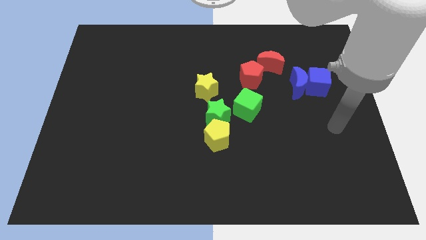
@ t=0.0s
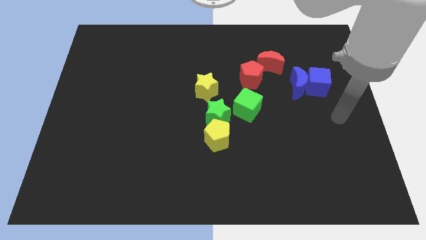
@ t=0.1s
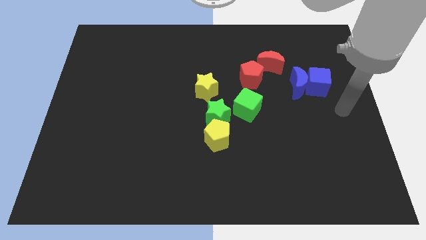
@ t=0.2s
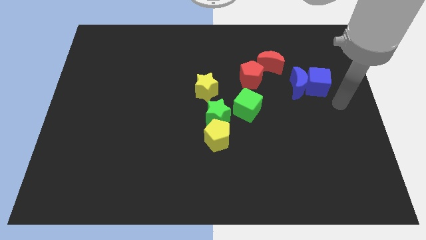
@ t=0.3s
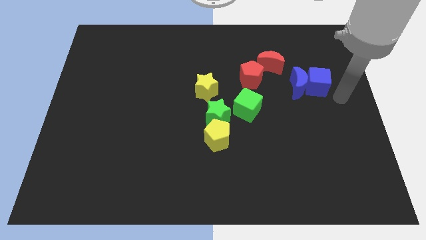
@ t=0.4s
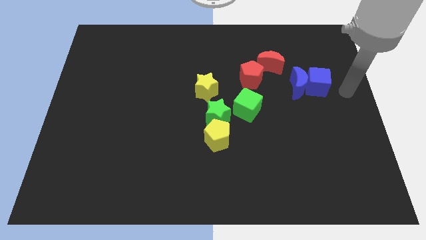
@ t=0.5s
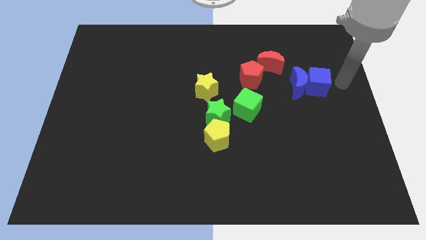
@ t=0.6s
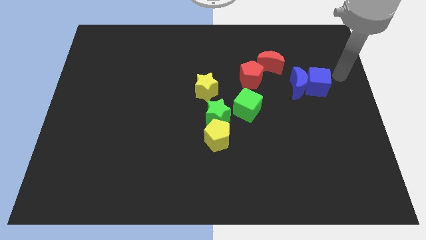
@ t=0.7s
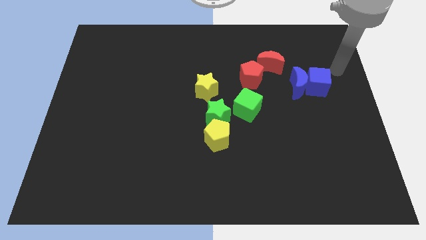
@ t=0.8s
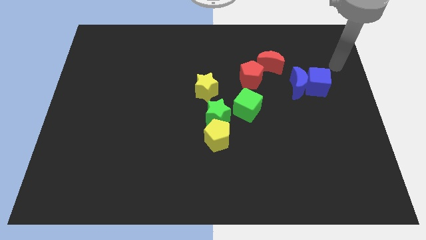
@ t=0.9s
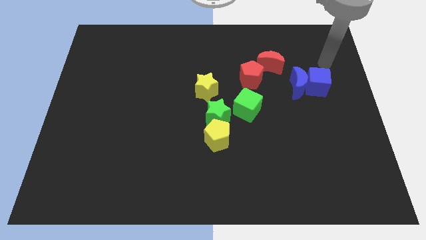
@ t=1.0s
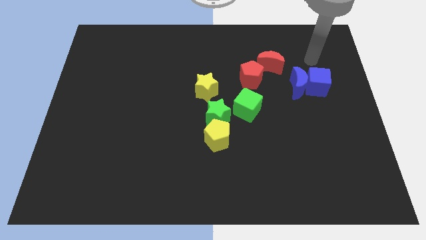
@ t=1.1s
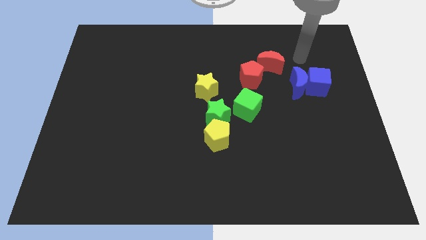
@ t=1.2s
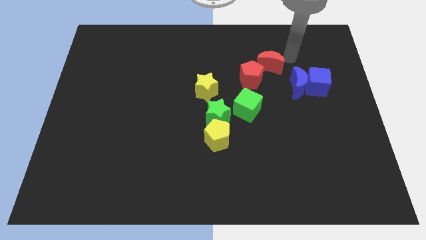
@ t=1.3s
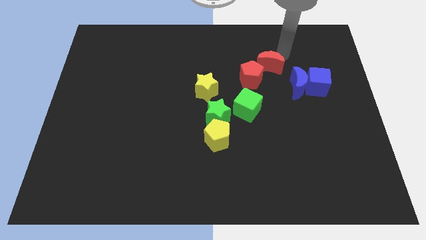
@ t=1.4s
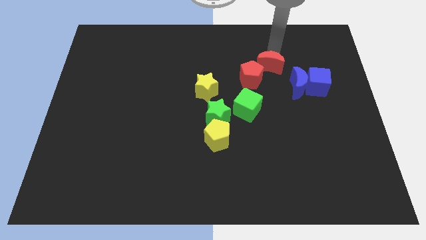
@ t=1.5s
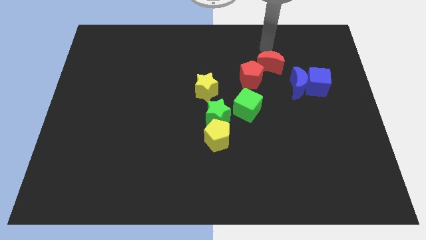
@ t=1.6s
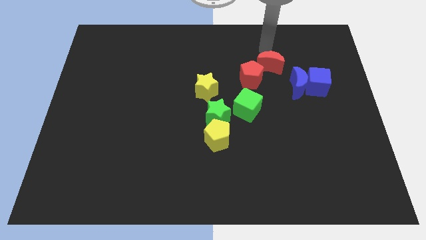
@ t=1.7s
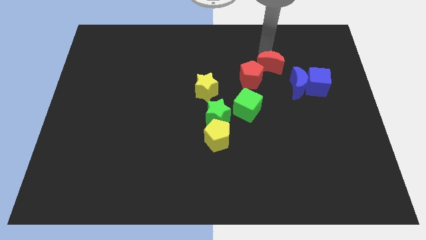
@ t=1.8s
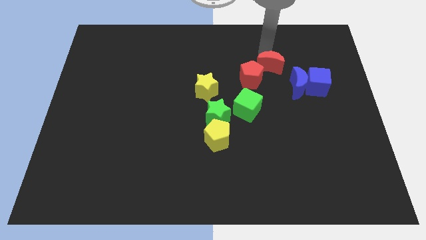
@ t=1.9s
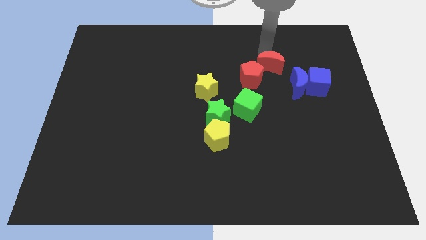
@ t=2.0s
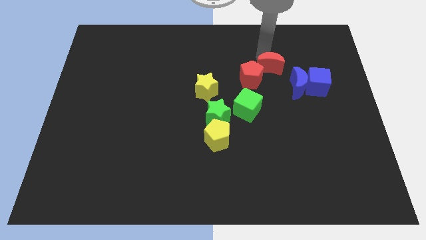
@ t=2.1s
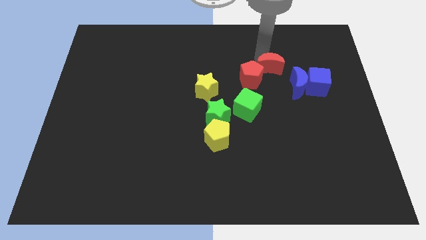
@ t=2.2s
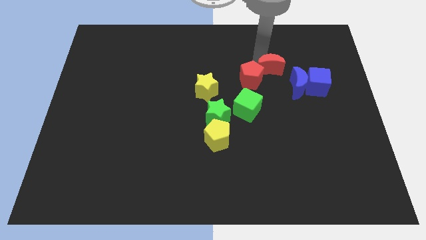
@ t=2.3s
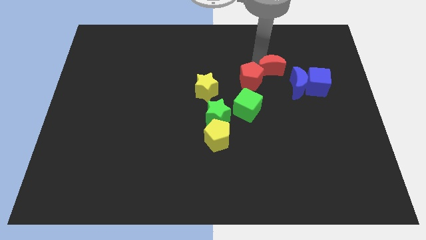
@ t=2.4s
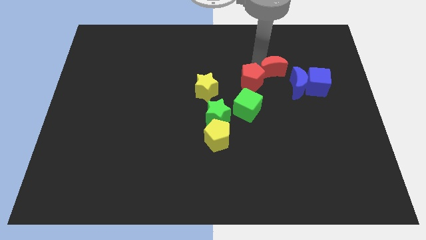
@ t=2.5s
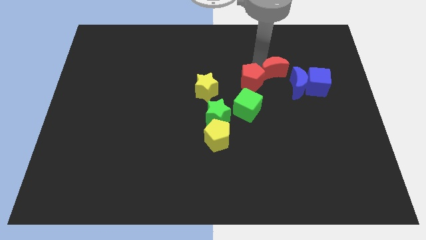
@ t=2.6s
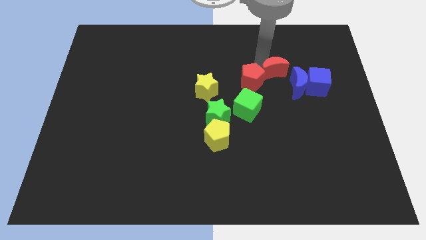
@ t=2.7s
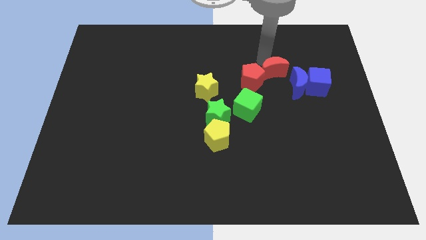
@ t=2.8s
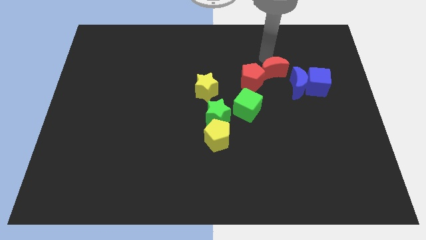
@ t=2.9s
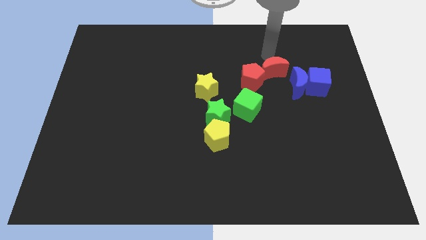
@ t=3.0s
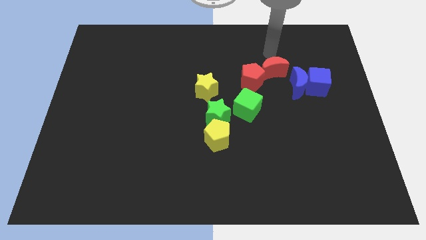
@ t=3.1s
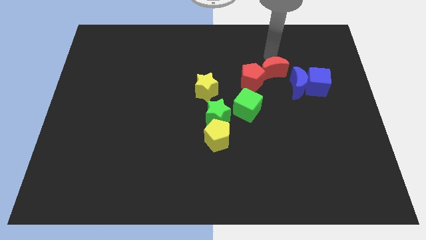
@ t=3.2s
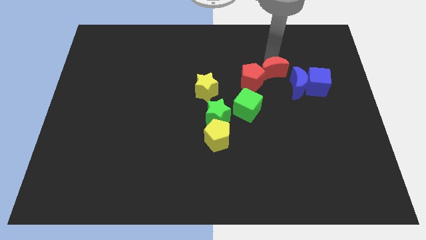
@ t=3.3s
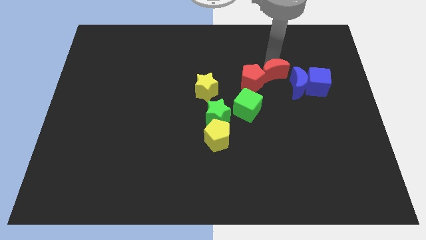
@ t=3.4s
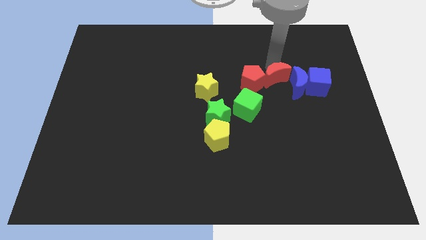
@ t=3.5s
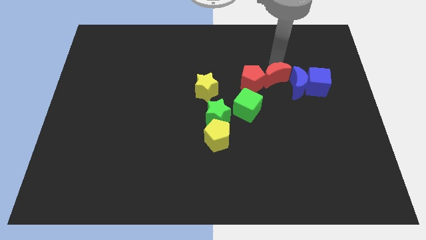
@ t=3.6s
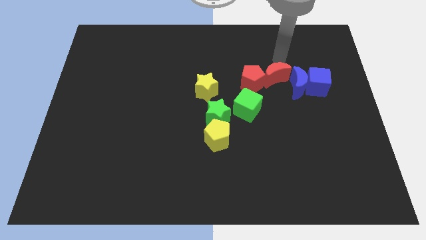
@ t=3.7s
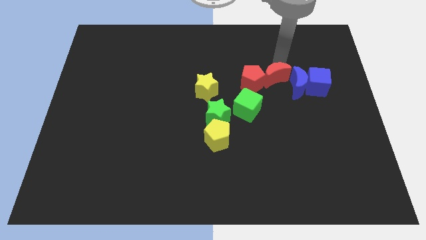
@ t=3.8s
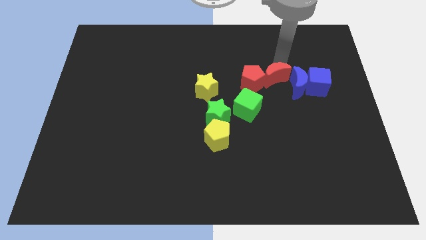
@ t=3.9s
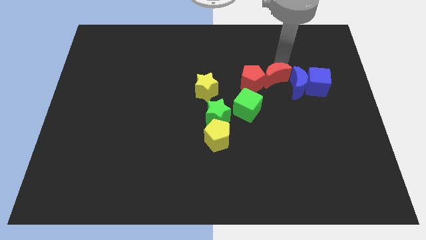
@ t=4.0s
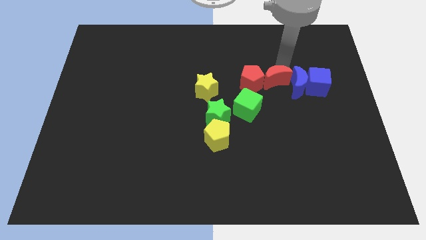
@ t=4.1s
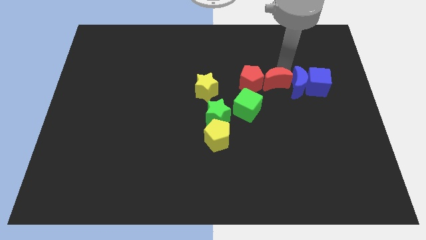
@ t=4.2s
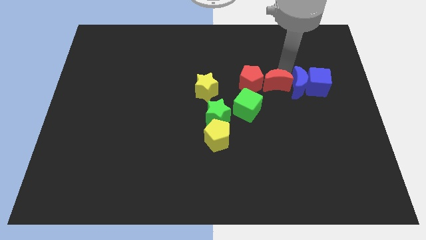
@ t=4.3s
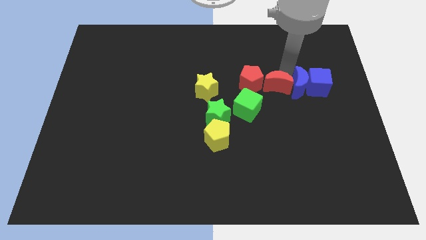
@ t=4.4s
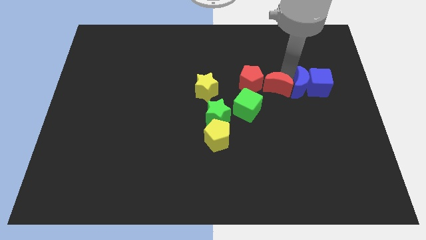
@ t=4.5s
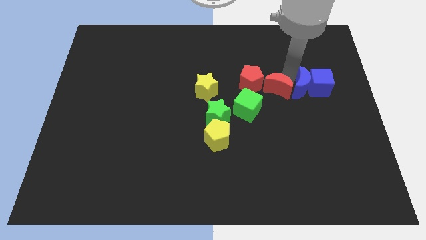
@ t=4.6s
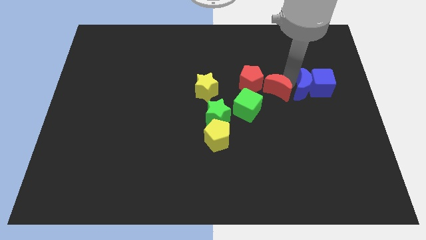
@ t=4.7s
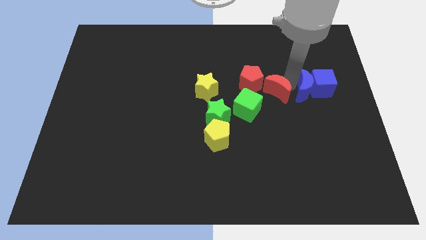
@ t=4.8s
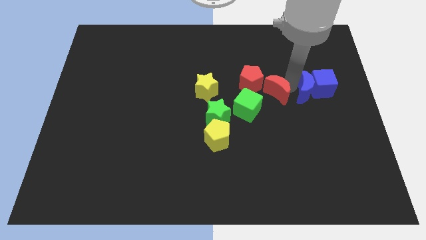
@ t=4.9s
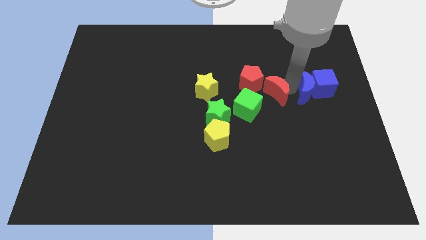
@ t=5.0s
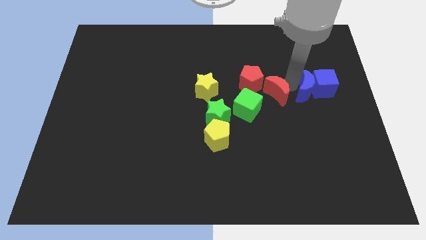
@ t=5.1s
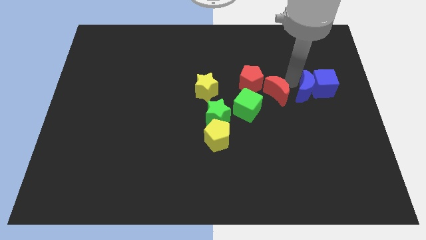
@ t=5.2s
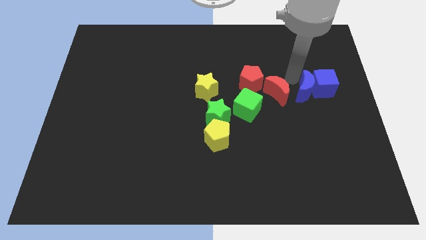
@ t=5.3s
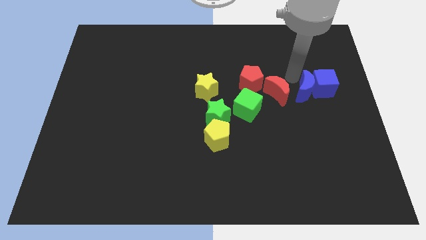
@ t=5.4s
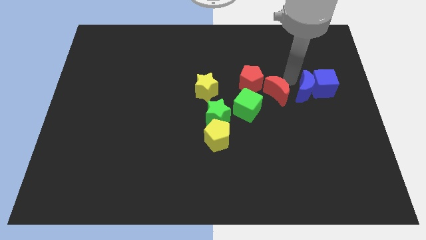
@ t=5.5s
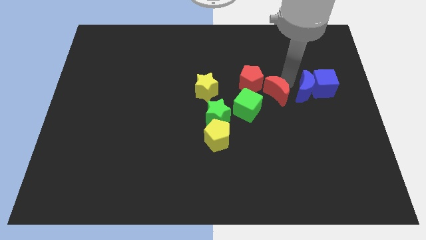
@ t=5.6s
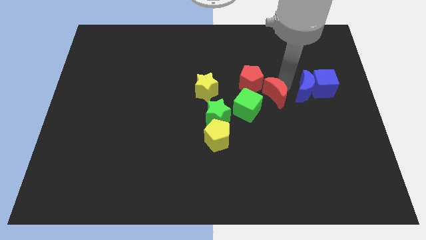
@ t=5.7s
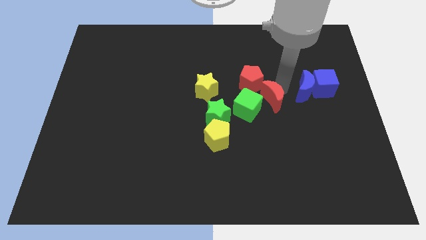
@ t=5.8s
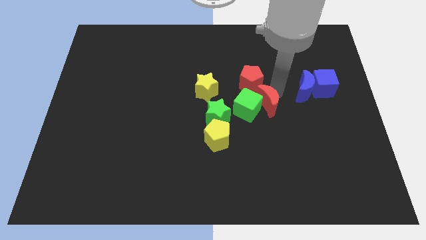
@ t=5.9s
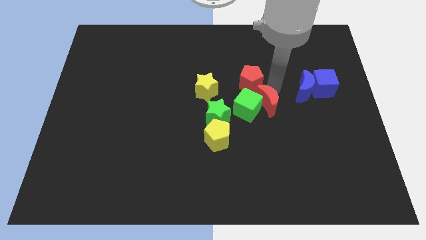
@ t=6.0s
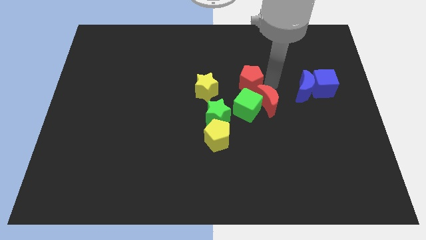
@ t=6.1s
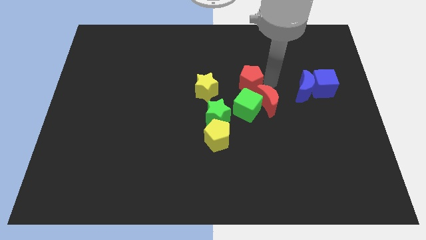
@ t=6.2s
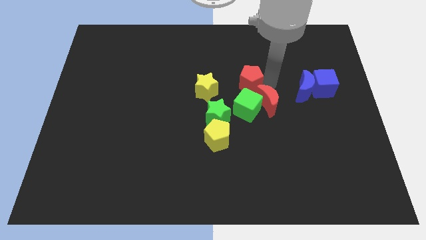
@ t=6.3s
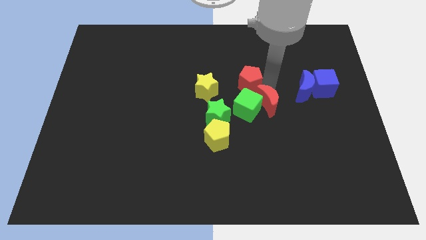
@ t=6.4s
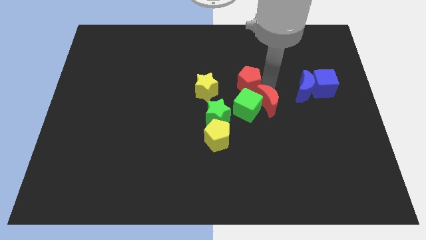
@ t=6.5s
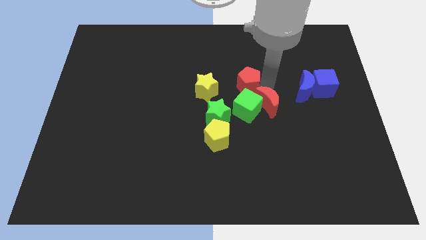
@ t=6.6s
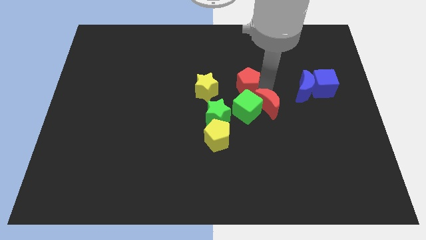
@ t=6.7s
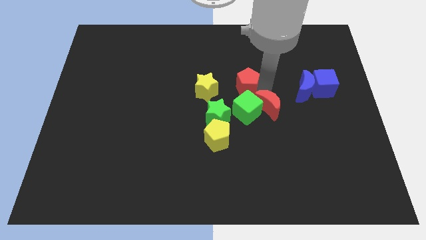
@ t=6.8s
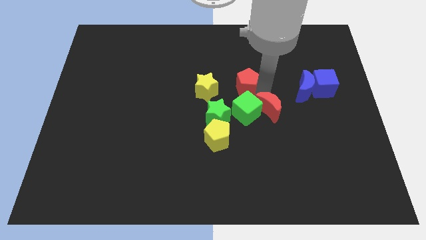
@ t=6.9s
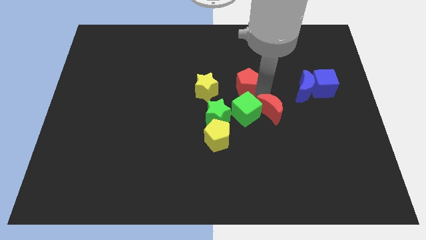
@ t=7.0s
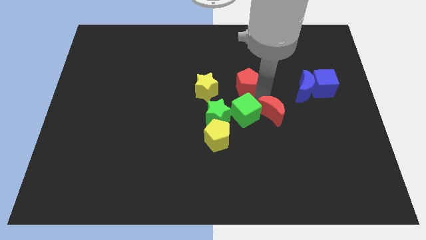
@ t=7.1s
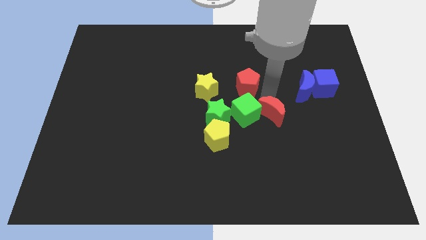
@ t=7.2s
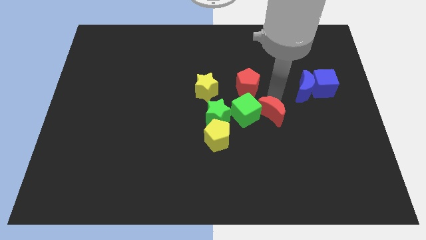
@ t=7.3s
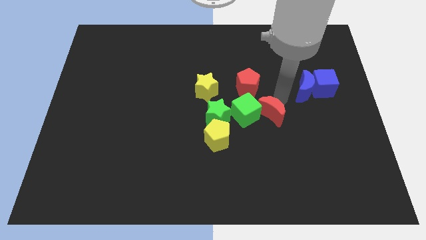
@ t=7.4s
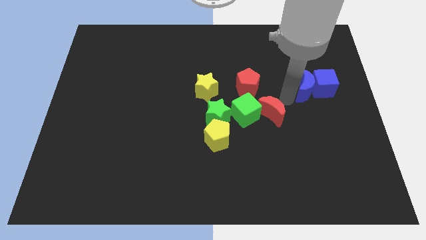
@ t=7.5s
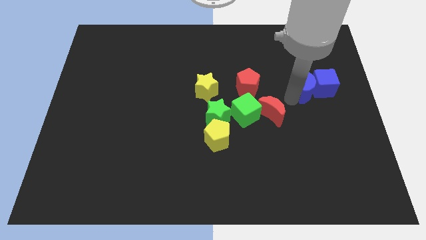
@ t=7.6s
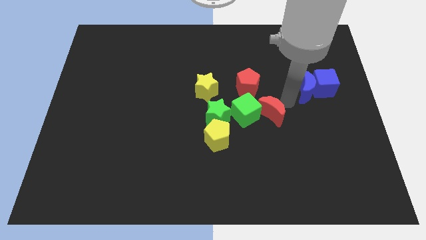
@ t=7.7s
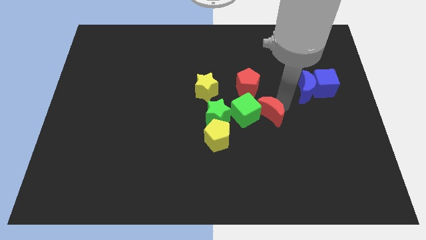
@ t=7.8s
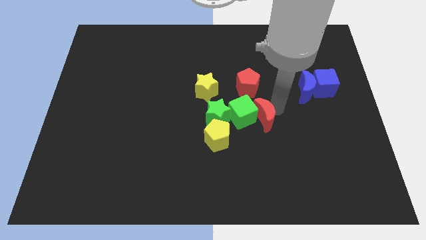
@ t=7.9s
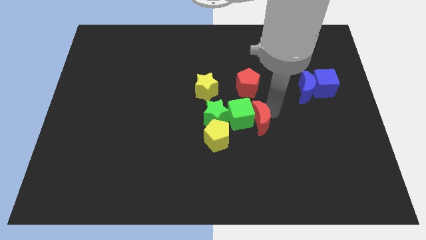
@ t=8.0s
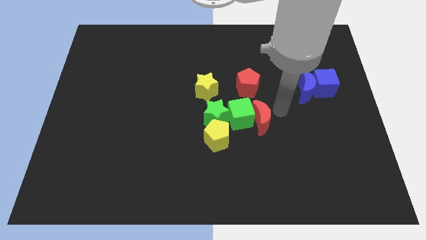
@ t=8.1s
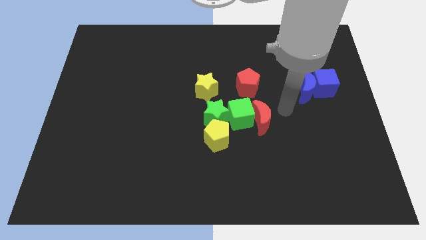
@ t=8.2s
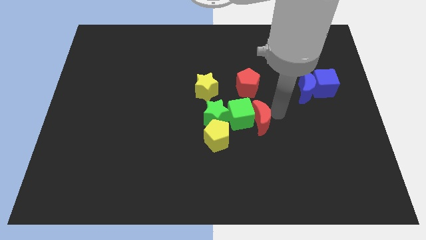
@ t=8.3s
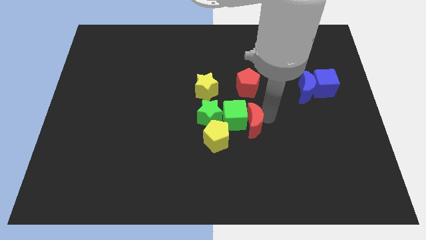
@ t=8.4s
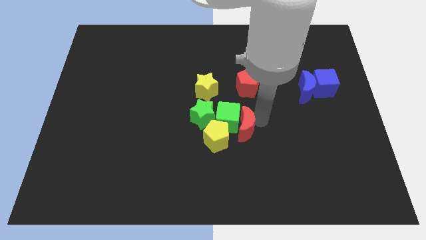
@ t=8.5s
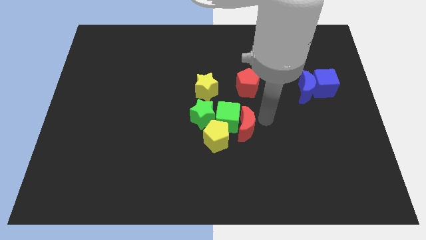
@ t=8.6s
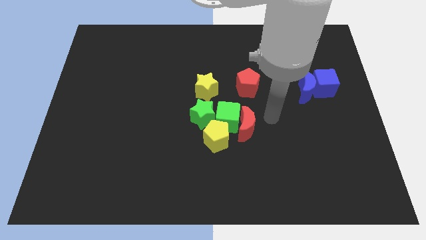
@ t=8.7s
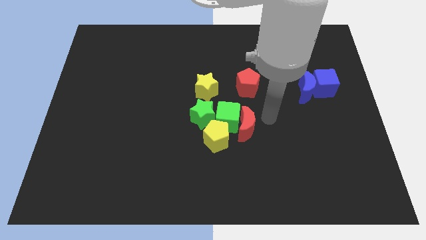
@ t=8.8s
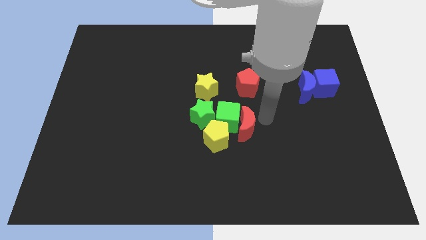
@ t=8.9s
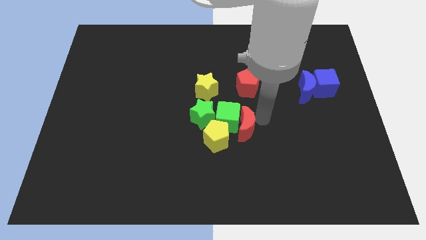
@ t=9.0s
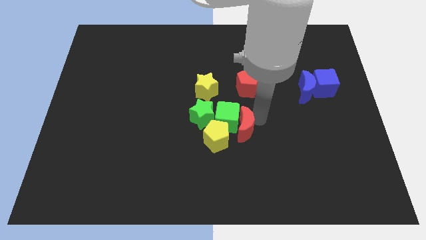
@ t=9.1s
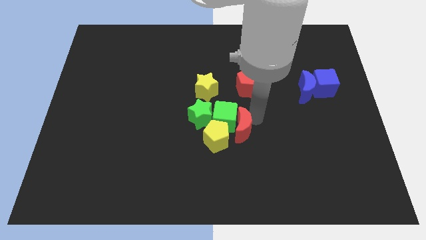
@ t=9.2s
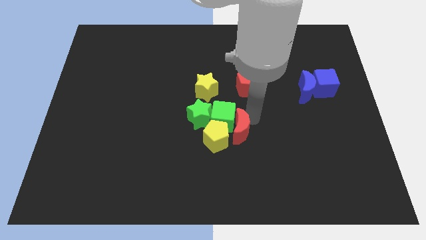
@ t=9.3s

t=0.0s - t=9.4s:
push the red moon next to the yellow pentagon
